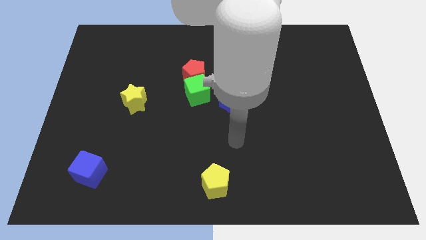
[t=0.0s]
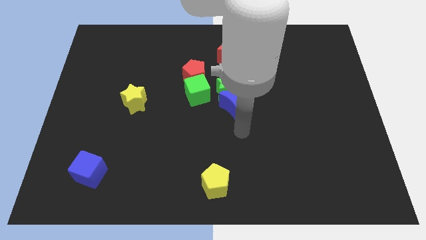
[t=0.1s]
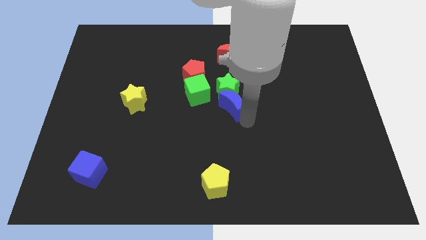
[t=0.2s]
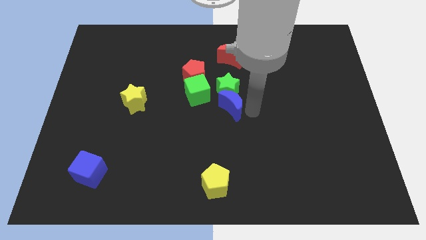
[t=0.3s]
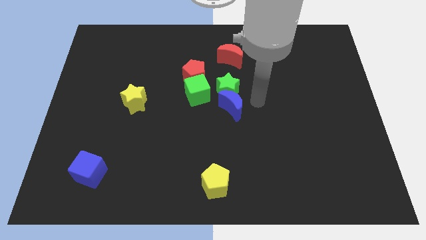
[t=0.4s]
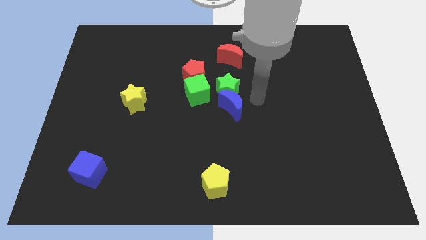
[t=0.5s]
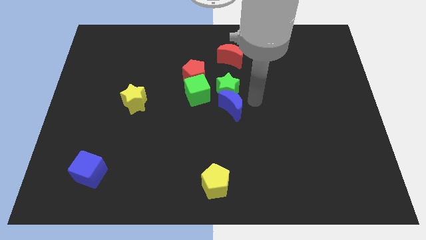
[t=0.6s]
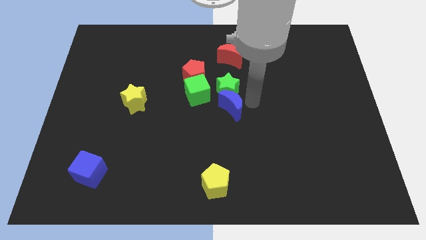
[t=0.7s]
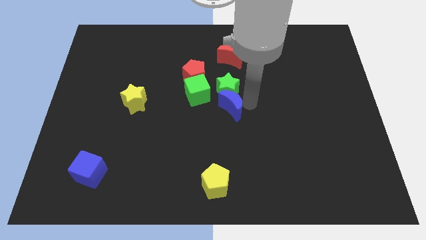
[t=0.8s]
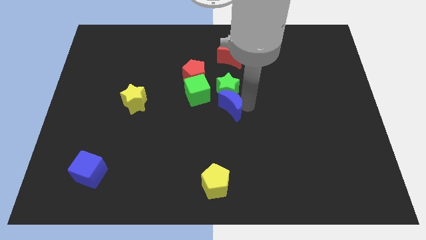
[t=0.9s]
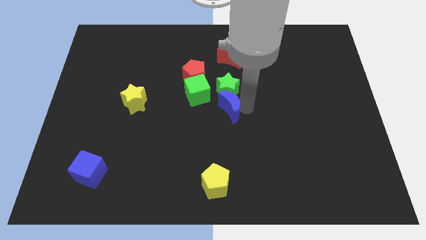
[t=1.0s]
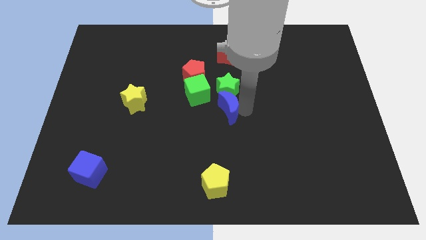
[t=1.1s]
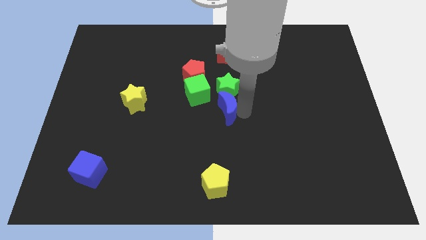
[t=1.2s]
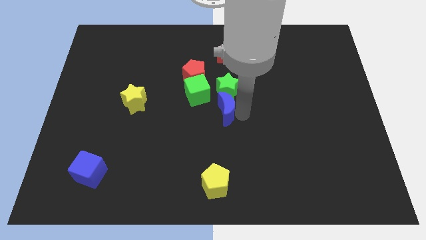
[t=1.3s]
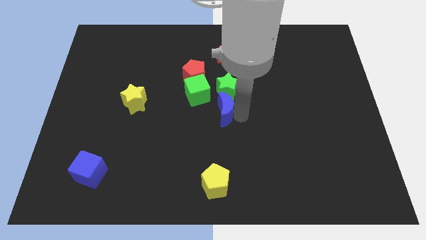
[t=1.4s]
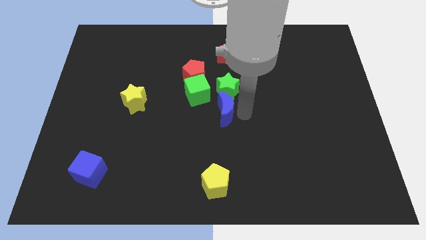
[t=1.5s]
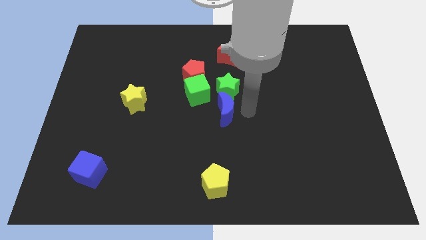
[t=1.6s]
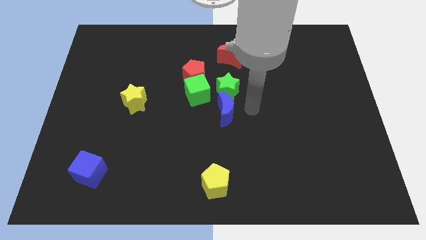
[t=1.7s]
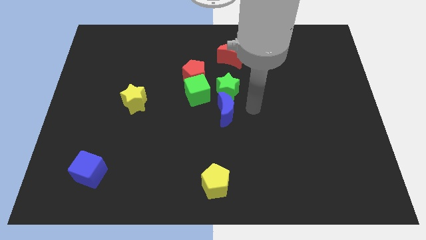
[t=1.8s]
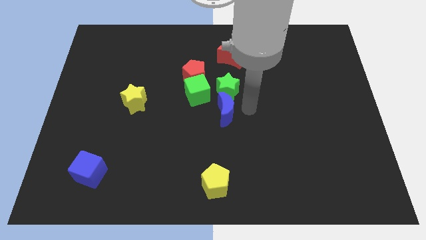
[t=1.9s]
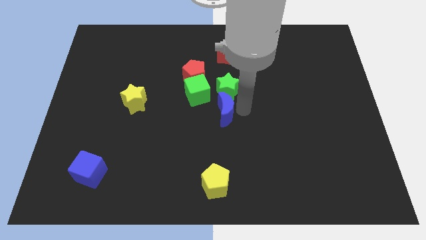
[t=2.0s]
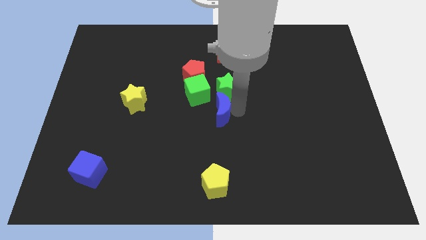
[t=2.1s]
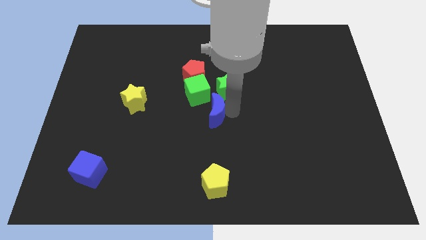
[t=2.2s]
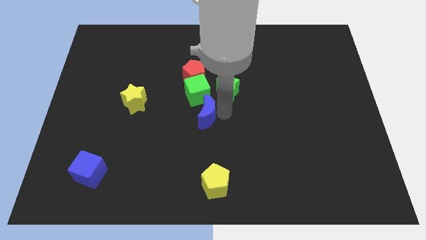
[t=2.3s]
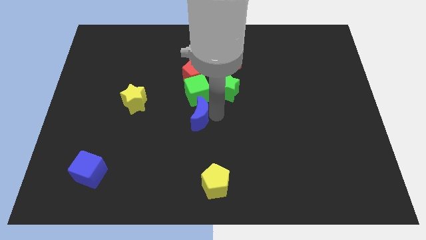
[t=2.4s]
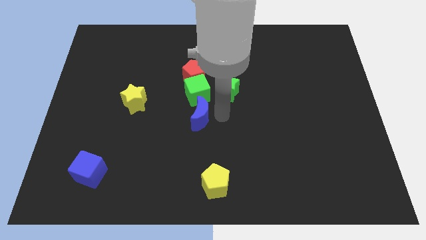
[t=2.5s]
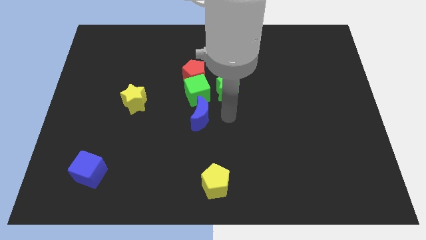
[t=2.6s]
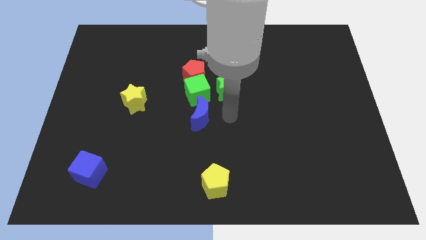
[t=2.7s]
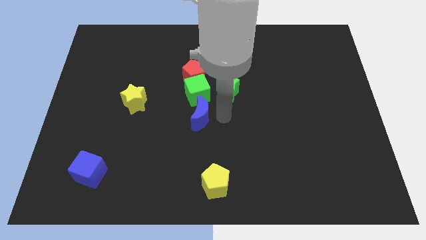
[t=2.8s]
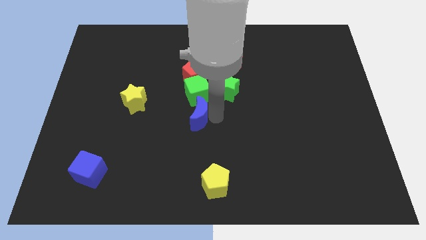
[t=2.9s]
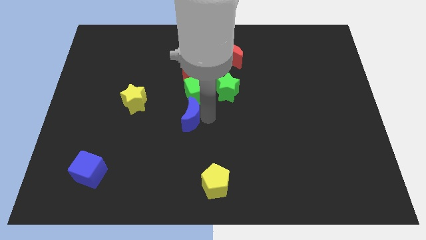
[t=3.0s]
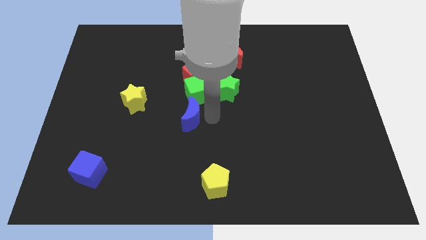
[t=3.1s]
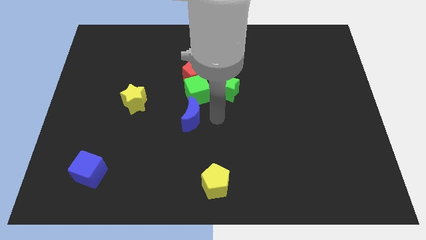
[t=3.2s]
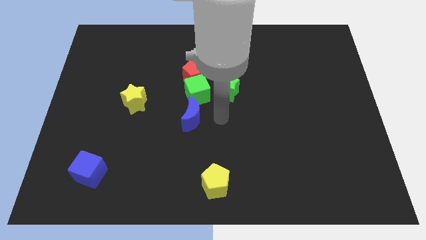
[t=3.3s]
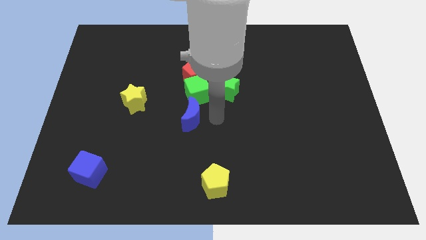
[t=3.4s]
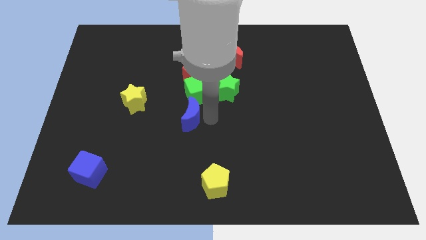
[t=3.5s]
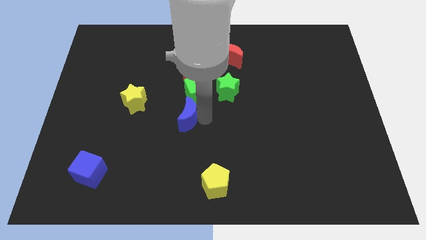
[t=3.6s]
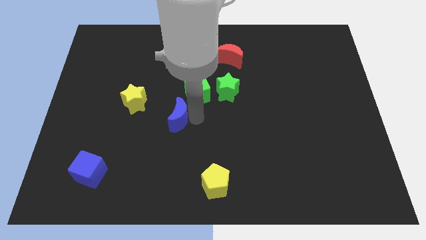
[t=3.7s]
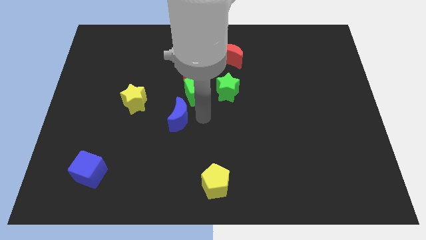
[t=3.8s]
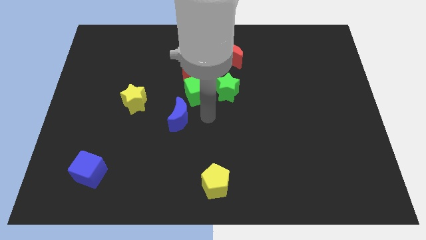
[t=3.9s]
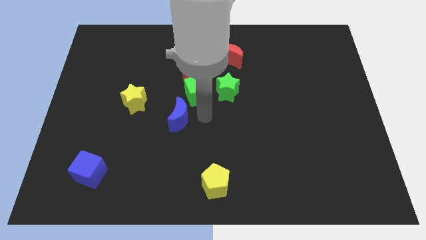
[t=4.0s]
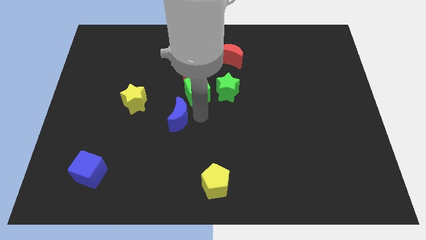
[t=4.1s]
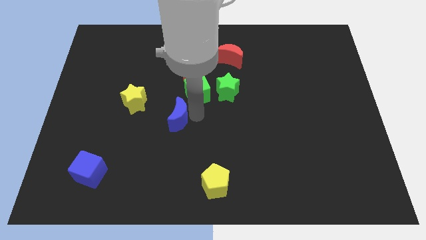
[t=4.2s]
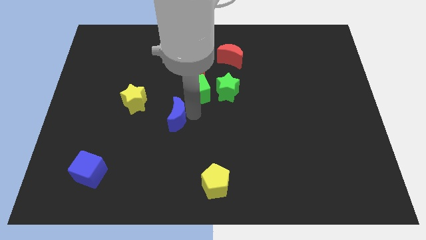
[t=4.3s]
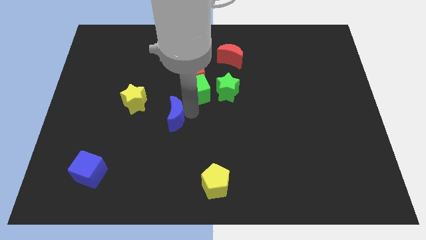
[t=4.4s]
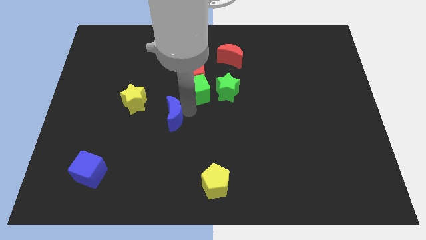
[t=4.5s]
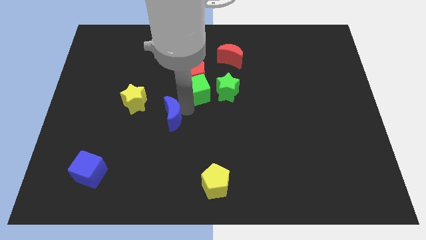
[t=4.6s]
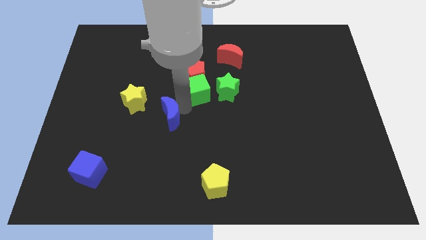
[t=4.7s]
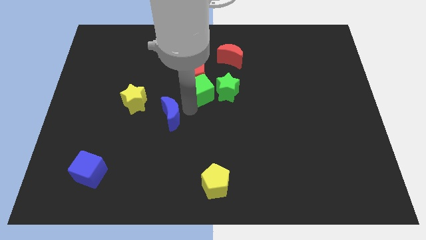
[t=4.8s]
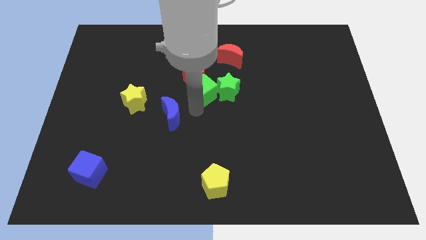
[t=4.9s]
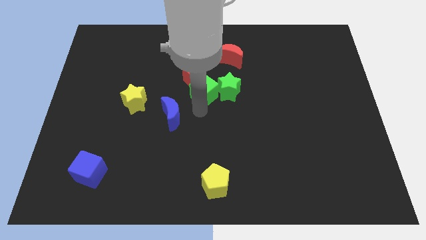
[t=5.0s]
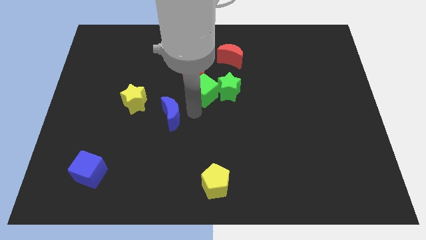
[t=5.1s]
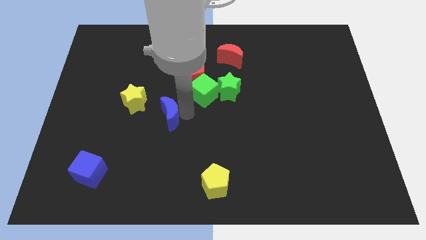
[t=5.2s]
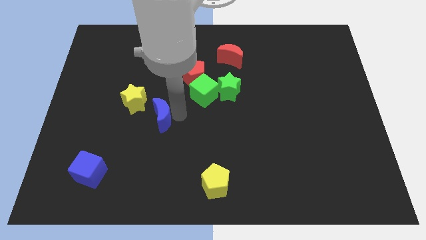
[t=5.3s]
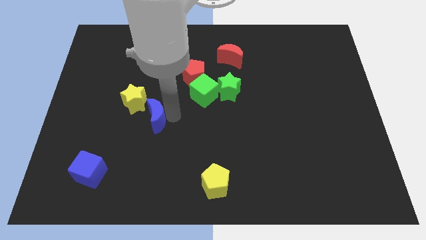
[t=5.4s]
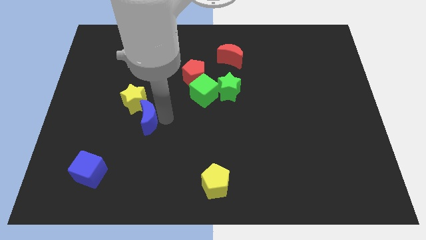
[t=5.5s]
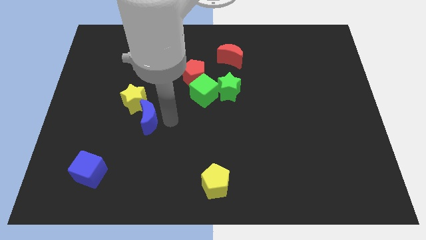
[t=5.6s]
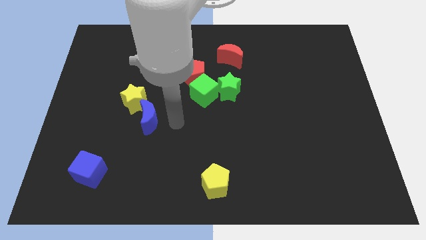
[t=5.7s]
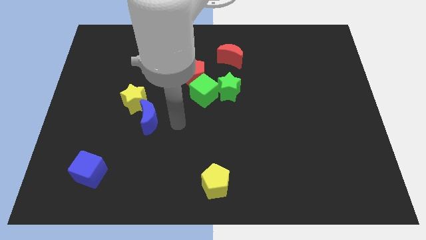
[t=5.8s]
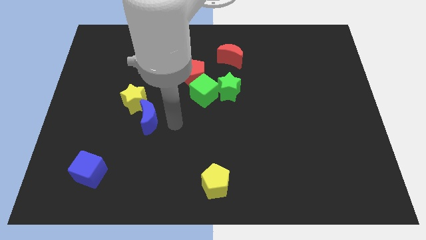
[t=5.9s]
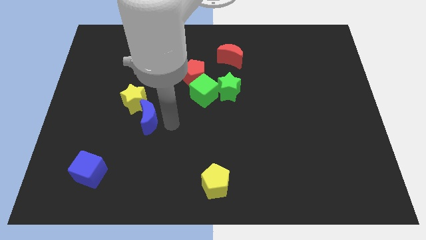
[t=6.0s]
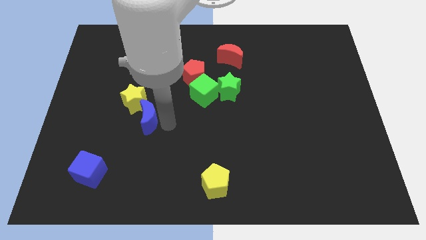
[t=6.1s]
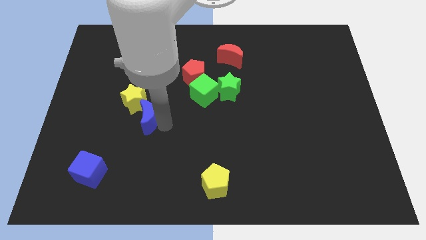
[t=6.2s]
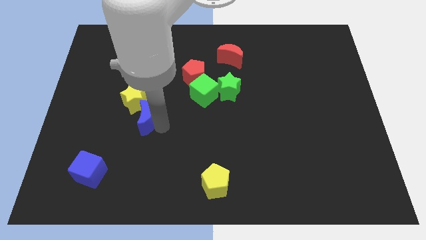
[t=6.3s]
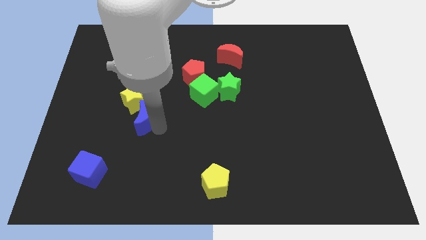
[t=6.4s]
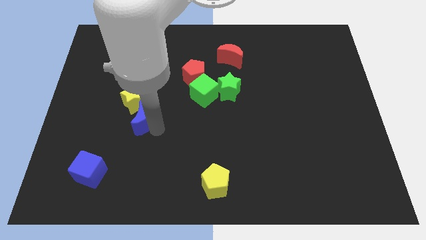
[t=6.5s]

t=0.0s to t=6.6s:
move the blue moon to the left

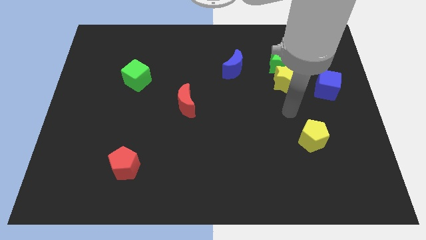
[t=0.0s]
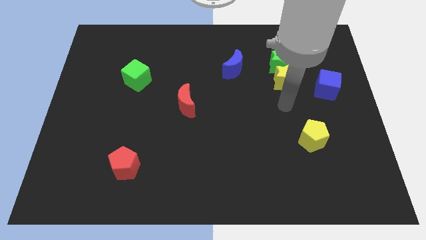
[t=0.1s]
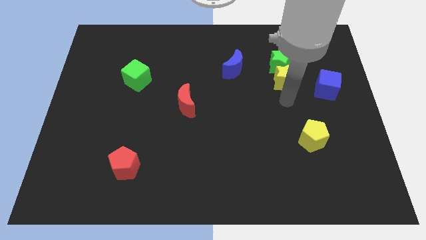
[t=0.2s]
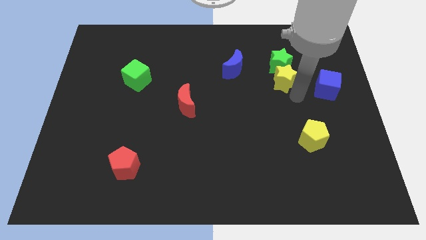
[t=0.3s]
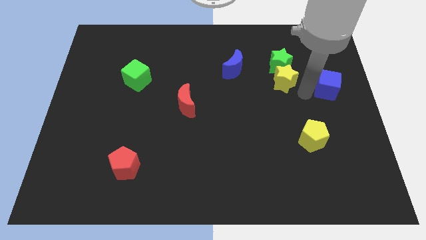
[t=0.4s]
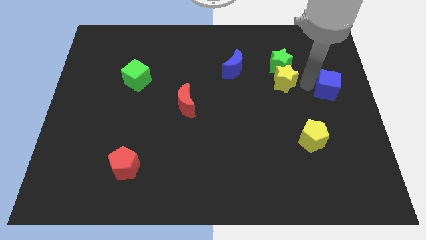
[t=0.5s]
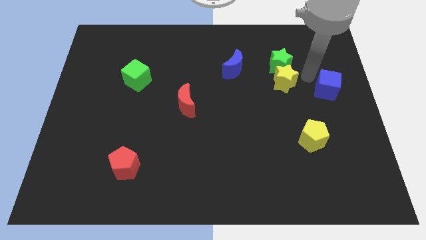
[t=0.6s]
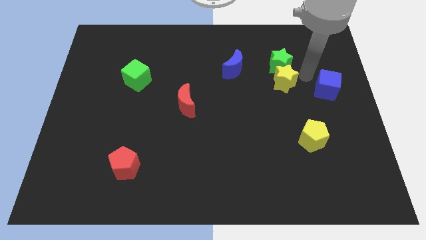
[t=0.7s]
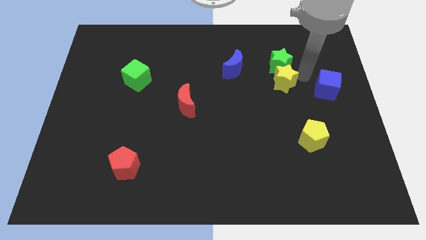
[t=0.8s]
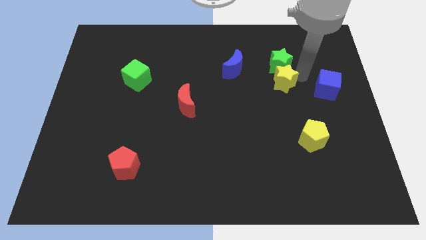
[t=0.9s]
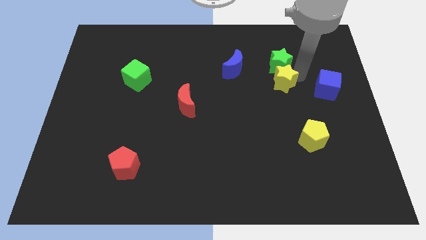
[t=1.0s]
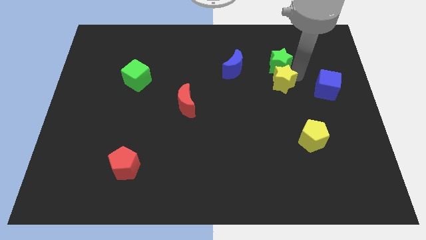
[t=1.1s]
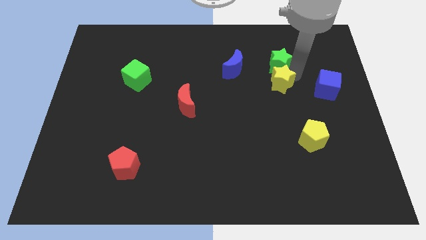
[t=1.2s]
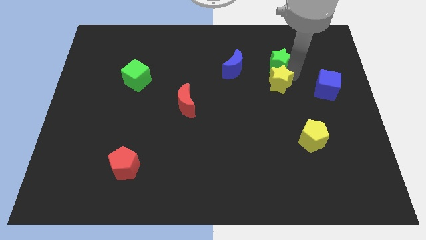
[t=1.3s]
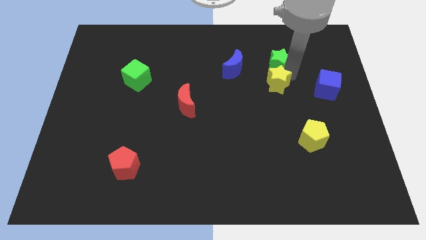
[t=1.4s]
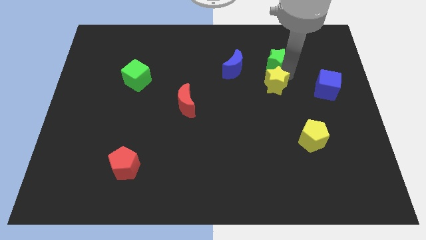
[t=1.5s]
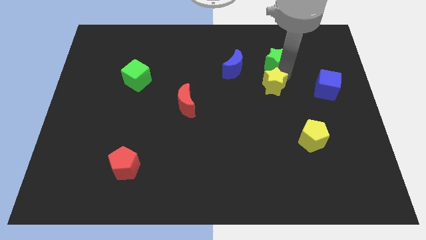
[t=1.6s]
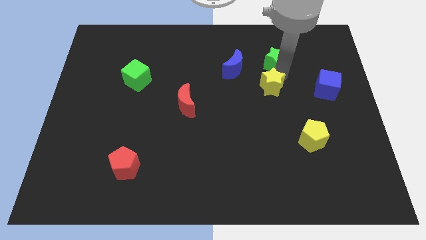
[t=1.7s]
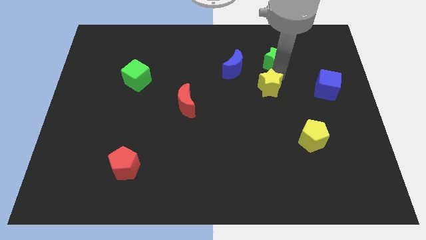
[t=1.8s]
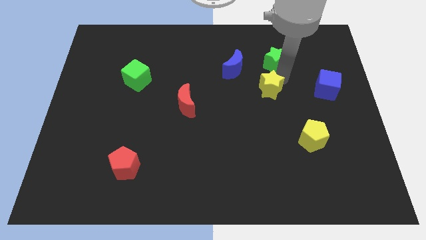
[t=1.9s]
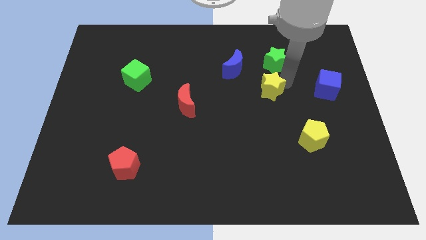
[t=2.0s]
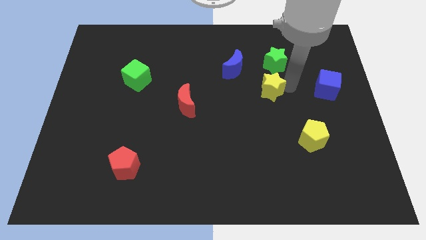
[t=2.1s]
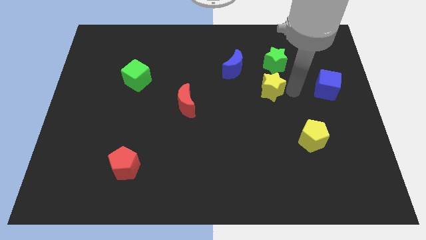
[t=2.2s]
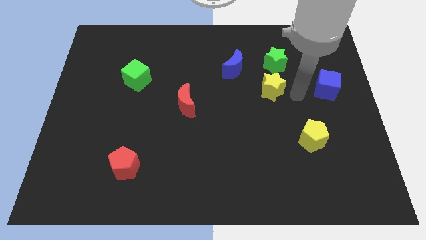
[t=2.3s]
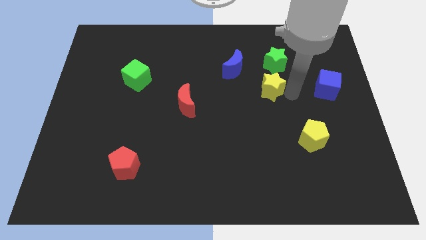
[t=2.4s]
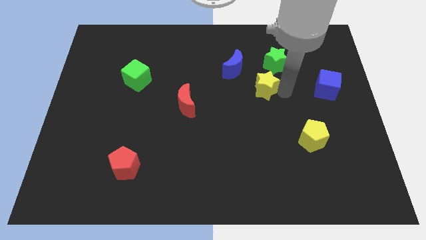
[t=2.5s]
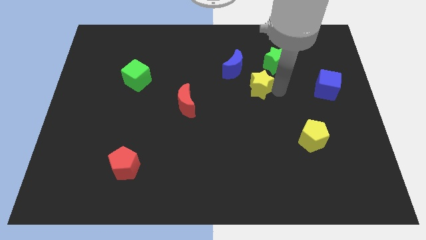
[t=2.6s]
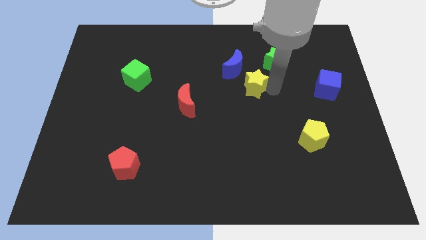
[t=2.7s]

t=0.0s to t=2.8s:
move the yellow star a little bit left
